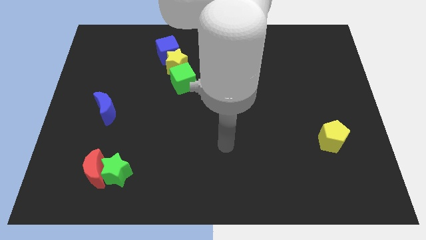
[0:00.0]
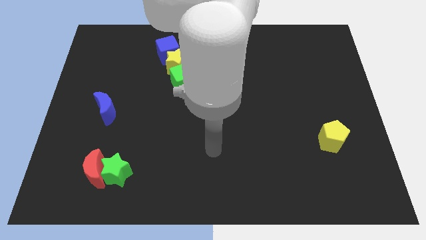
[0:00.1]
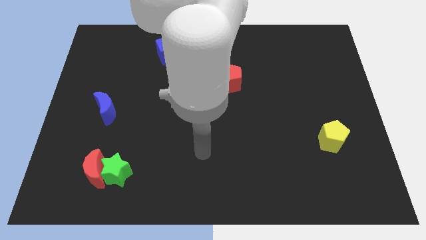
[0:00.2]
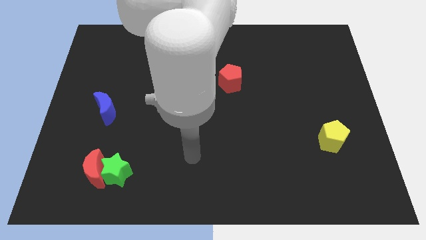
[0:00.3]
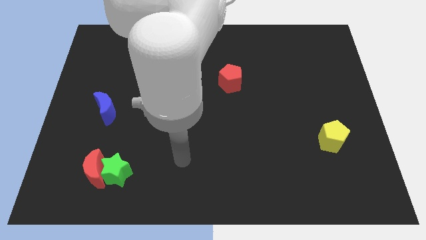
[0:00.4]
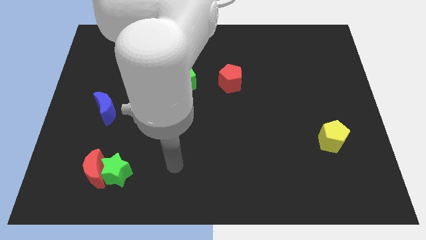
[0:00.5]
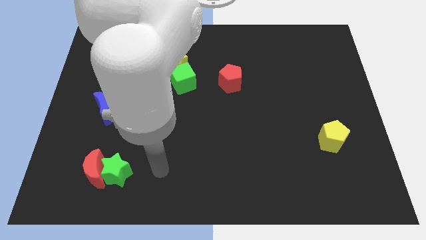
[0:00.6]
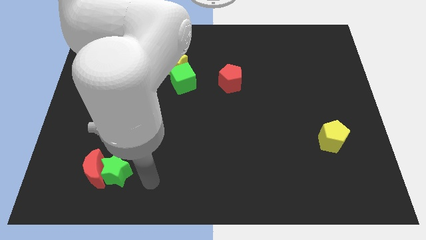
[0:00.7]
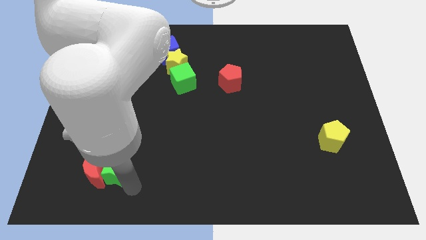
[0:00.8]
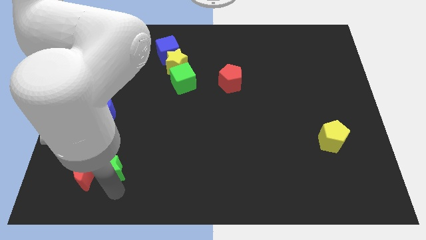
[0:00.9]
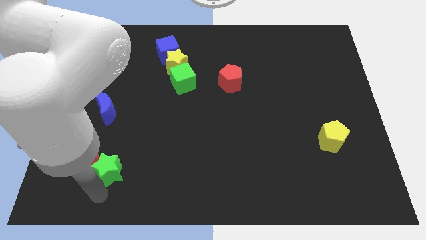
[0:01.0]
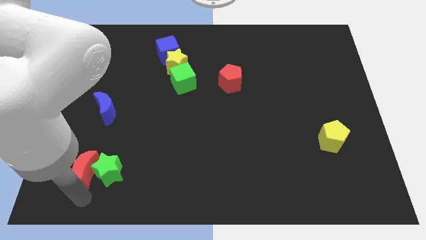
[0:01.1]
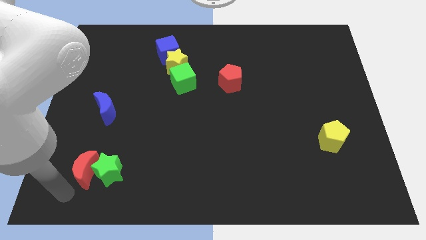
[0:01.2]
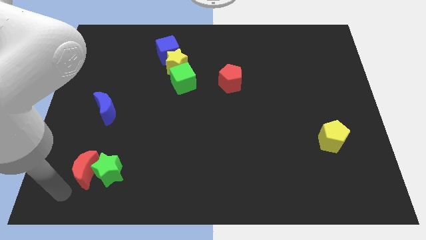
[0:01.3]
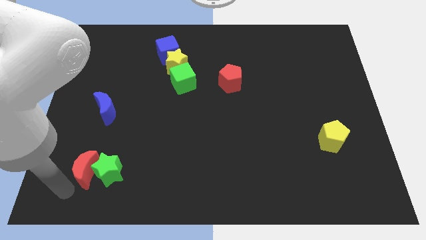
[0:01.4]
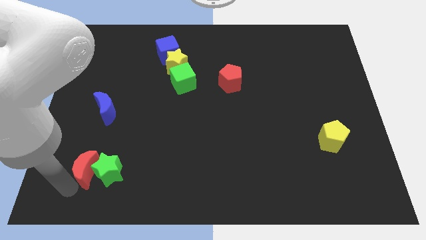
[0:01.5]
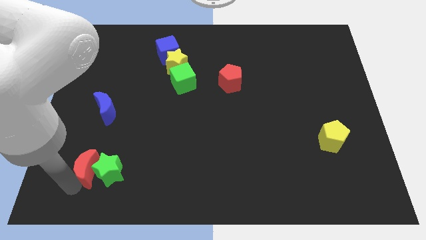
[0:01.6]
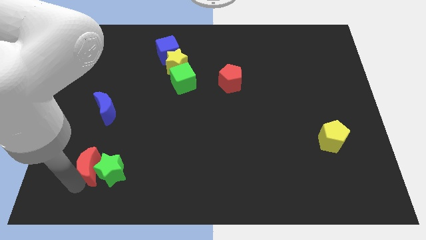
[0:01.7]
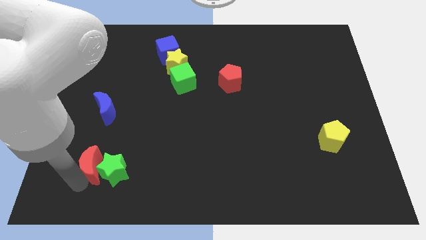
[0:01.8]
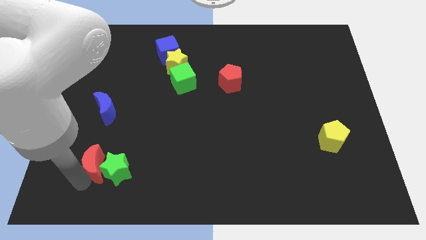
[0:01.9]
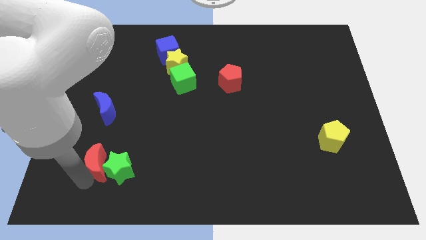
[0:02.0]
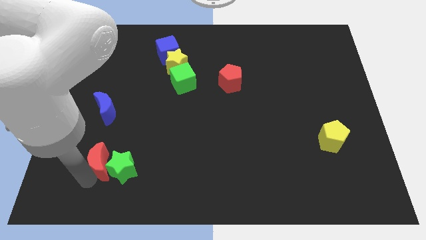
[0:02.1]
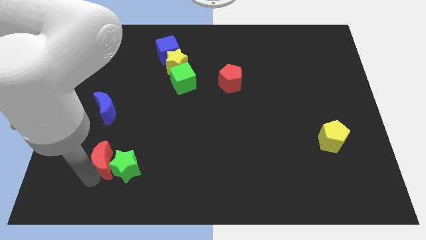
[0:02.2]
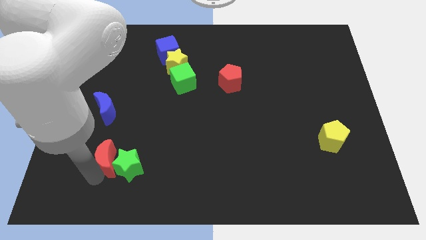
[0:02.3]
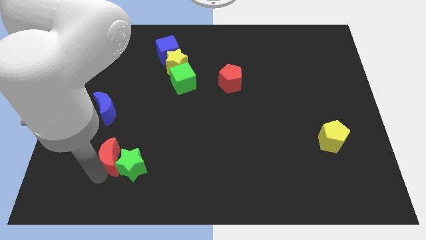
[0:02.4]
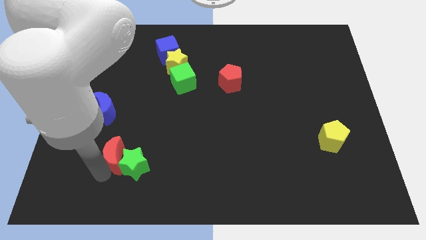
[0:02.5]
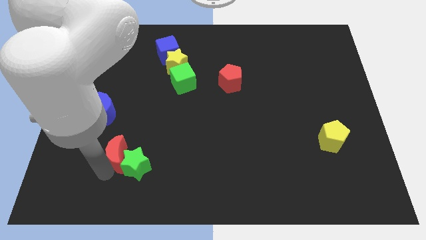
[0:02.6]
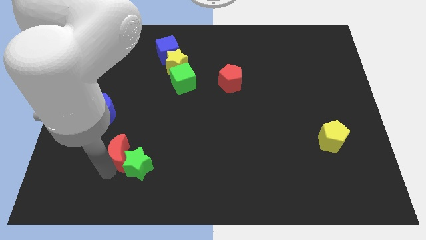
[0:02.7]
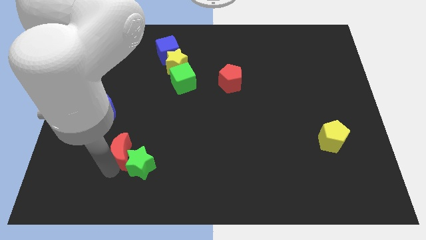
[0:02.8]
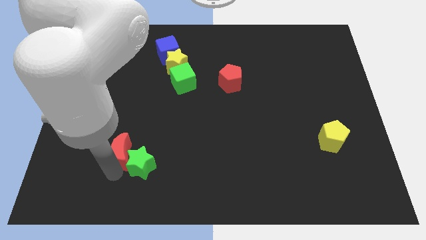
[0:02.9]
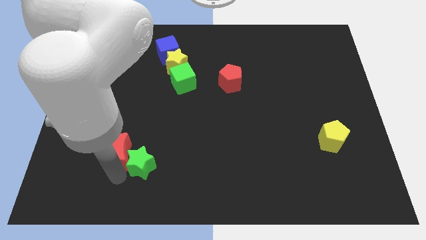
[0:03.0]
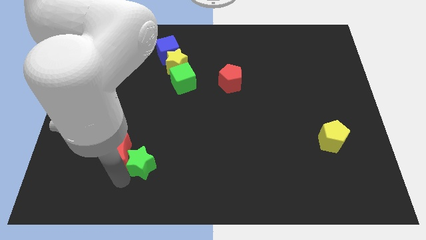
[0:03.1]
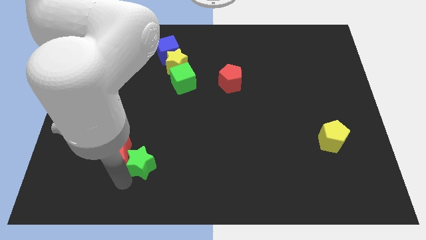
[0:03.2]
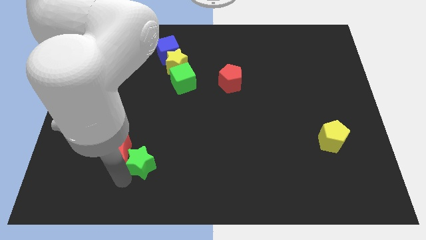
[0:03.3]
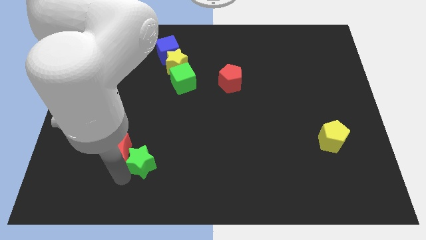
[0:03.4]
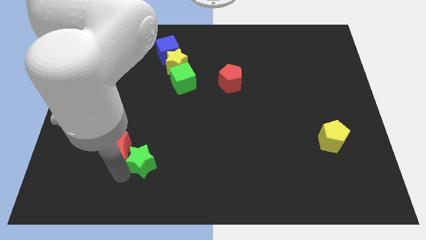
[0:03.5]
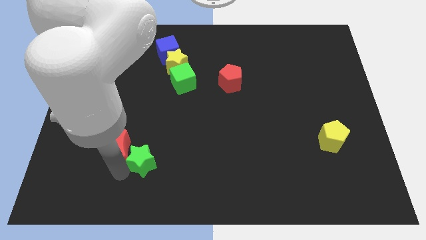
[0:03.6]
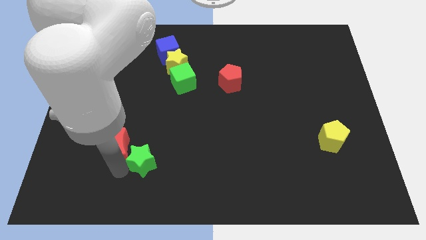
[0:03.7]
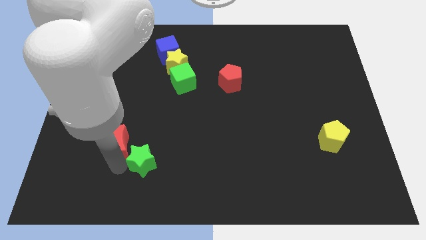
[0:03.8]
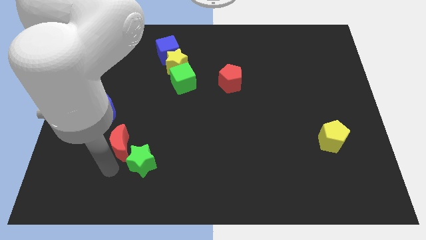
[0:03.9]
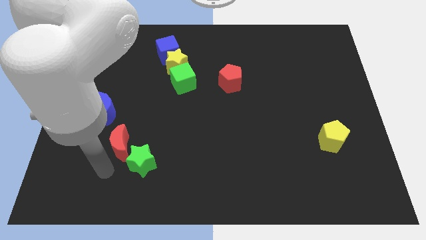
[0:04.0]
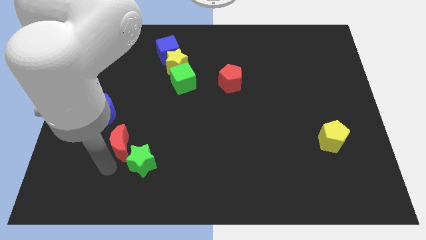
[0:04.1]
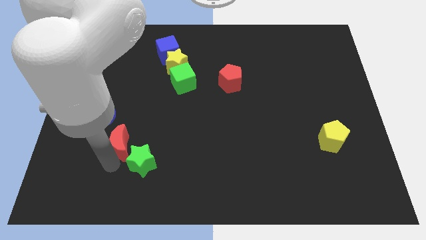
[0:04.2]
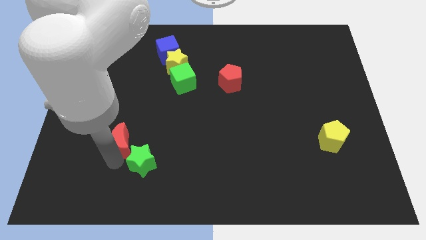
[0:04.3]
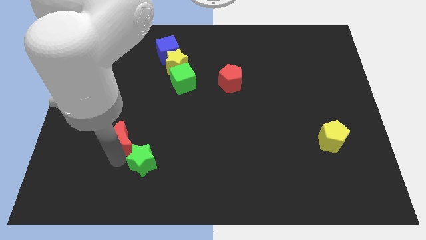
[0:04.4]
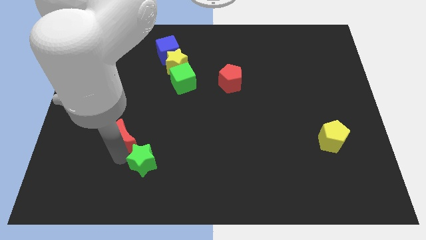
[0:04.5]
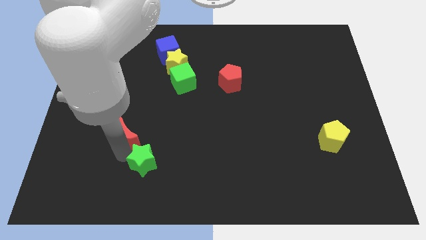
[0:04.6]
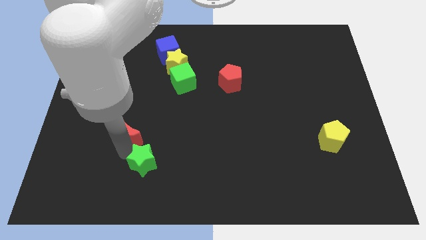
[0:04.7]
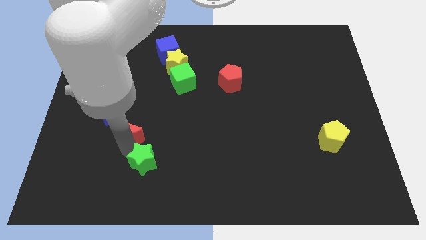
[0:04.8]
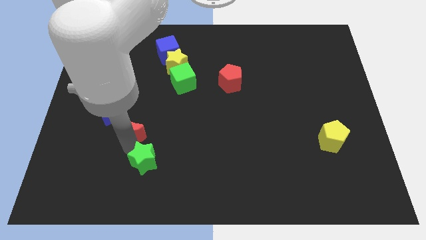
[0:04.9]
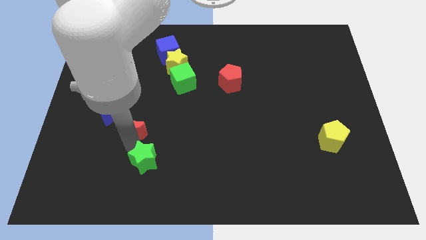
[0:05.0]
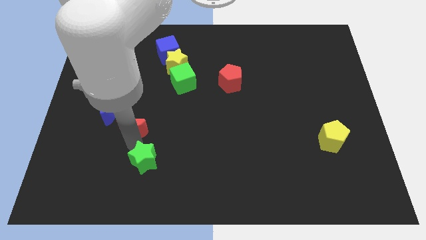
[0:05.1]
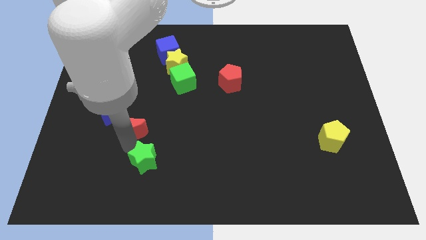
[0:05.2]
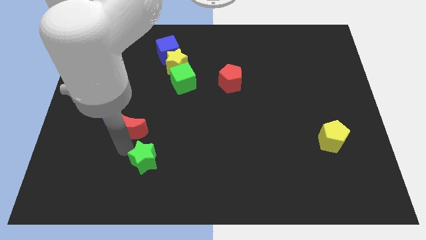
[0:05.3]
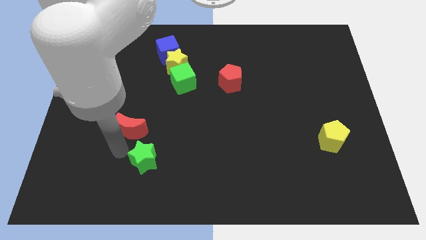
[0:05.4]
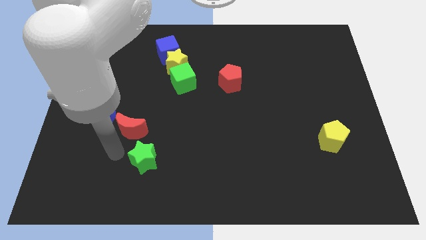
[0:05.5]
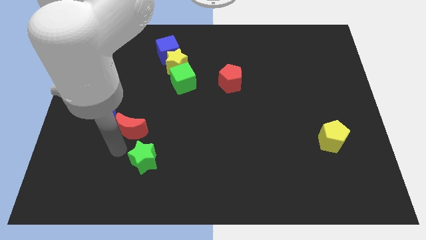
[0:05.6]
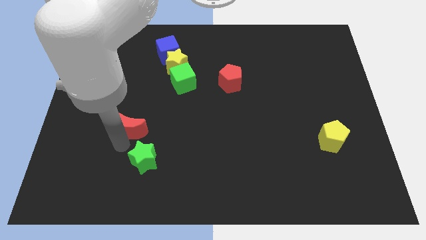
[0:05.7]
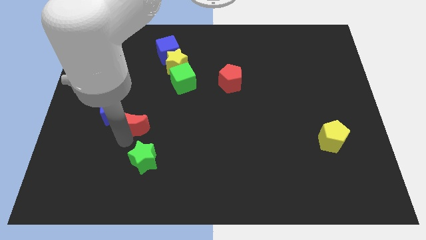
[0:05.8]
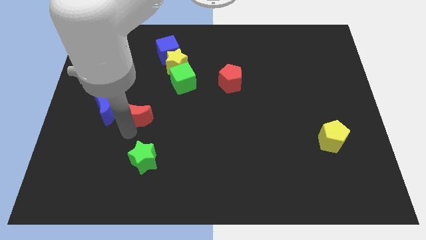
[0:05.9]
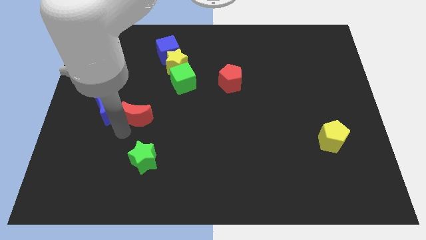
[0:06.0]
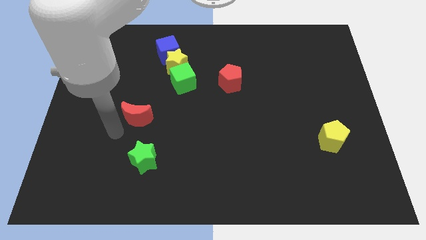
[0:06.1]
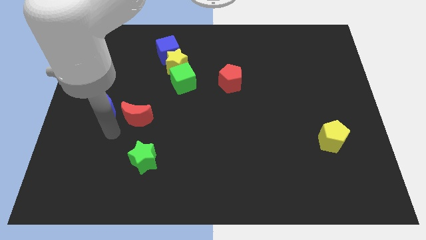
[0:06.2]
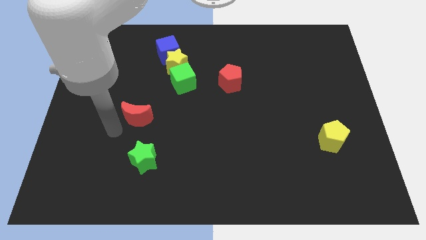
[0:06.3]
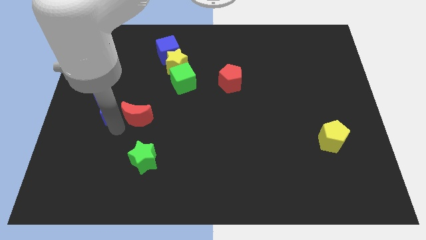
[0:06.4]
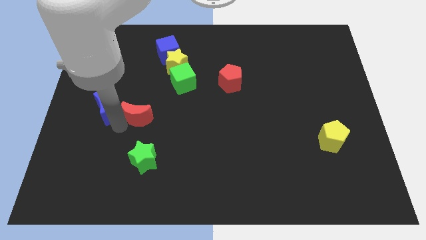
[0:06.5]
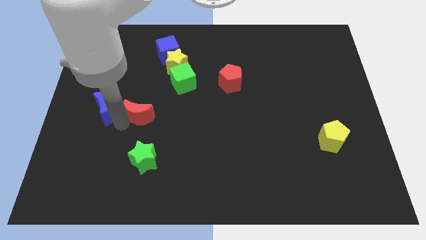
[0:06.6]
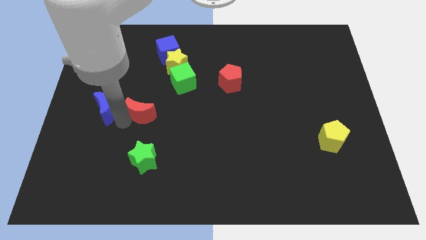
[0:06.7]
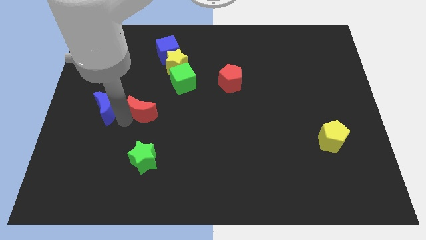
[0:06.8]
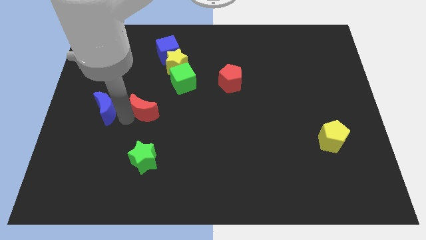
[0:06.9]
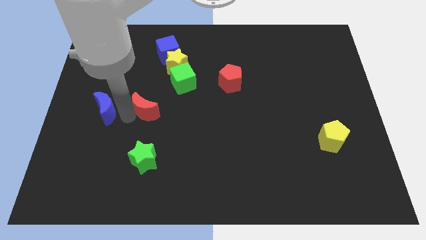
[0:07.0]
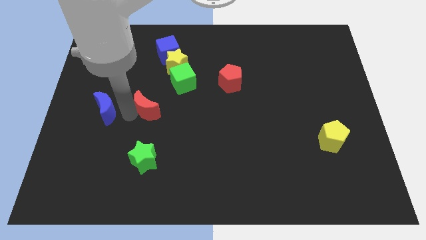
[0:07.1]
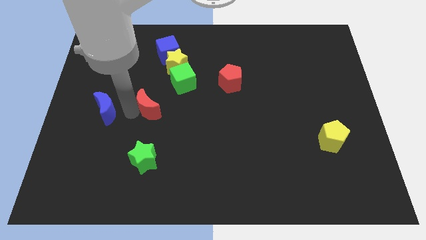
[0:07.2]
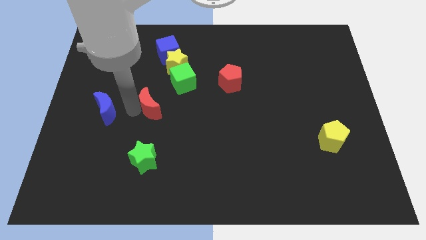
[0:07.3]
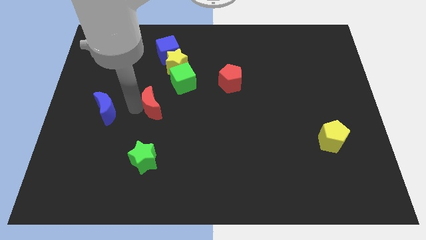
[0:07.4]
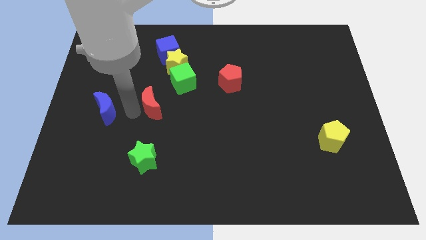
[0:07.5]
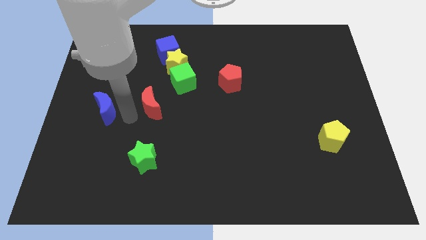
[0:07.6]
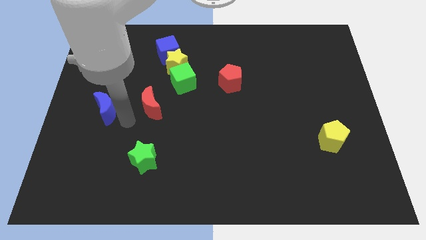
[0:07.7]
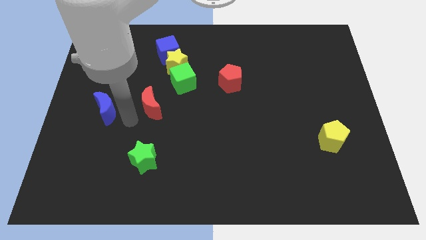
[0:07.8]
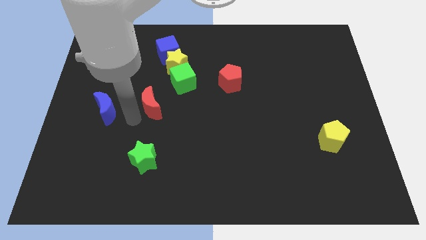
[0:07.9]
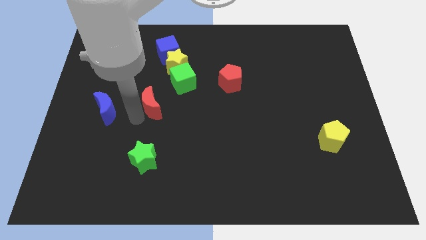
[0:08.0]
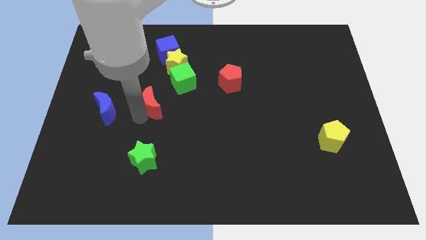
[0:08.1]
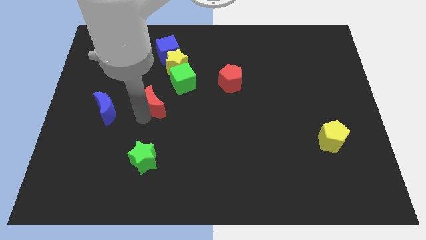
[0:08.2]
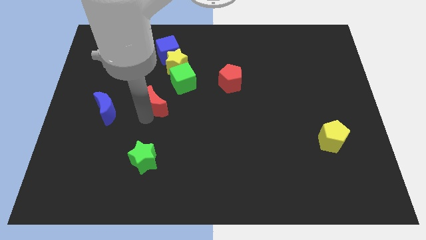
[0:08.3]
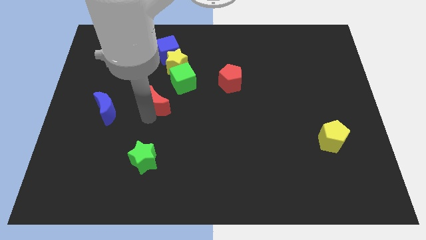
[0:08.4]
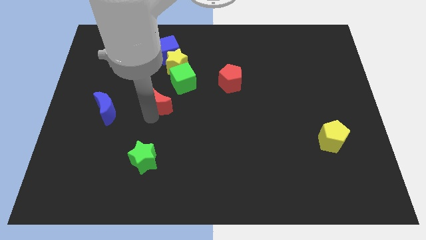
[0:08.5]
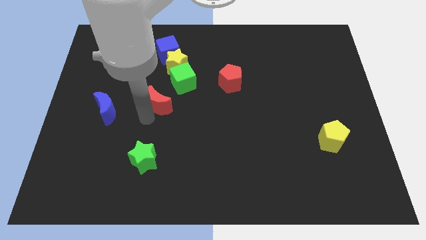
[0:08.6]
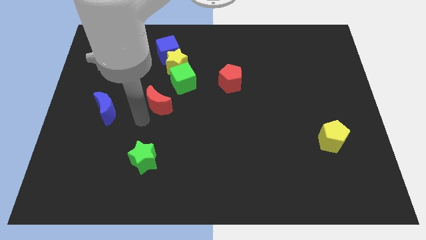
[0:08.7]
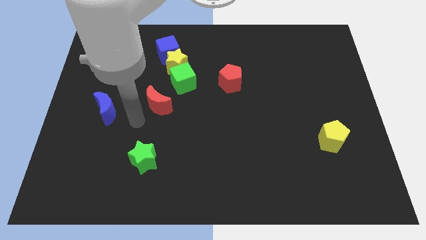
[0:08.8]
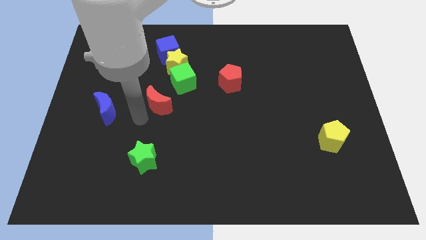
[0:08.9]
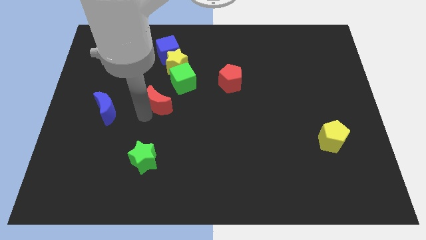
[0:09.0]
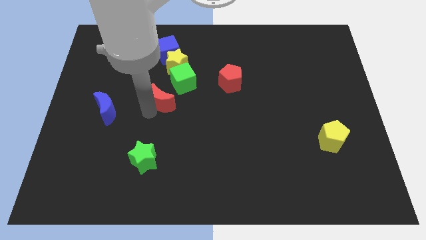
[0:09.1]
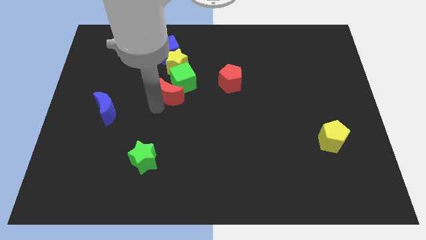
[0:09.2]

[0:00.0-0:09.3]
move the red moon to the green cube
